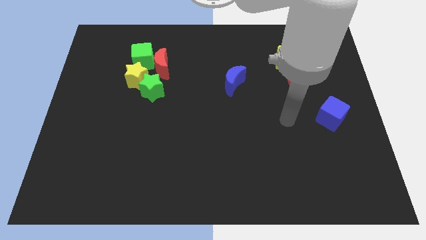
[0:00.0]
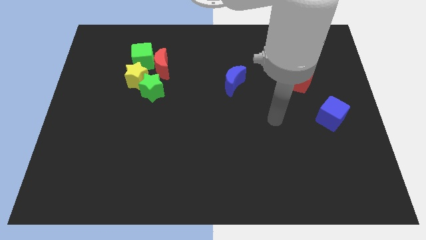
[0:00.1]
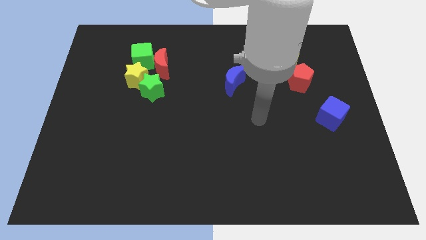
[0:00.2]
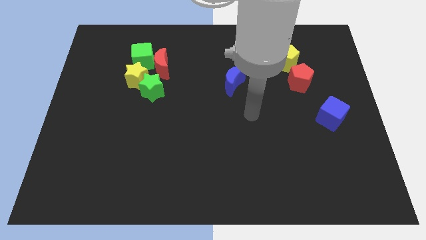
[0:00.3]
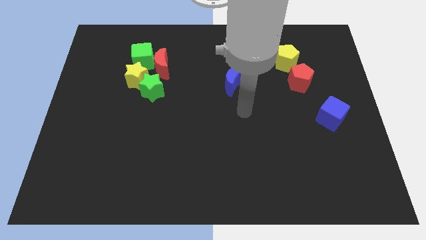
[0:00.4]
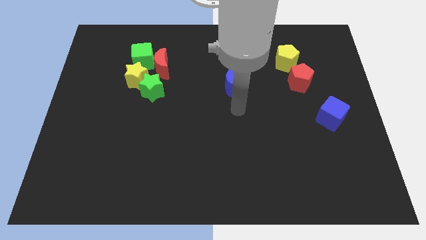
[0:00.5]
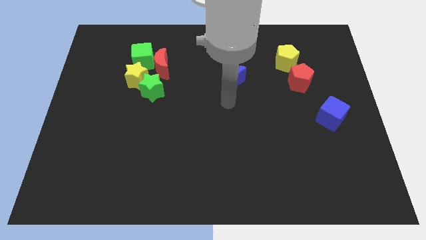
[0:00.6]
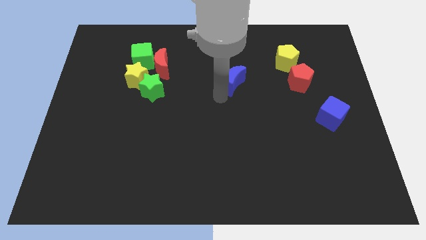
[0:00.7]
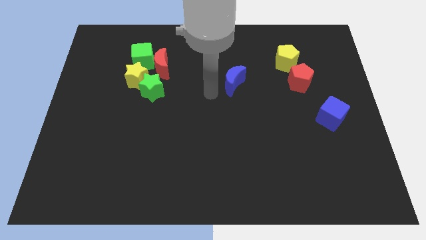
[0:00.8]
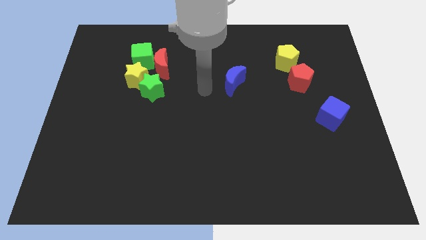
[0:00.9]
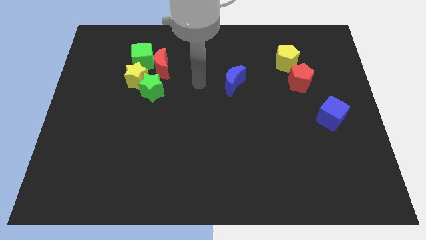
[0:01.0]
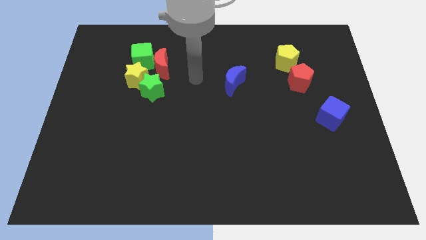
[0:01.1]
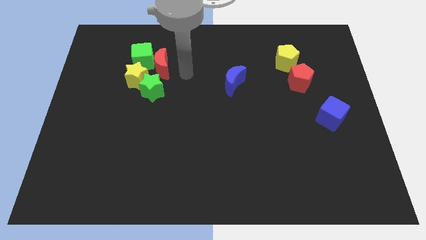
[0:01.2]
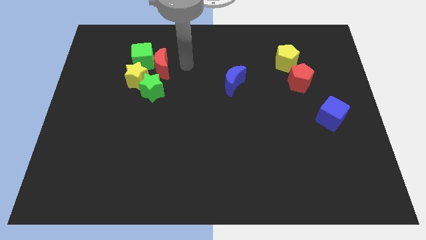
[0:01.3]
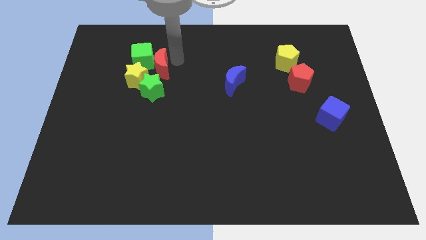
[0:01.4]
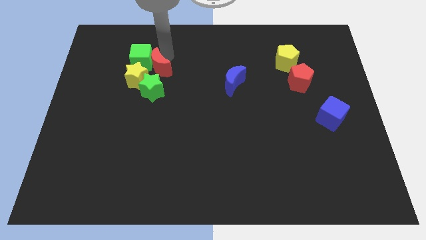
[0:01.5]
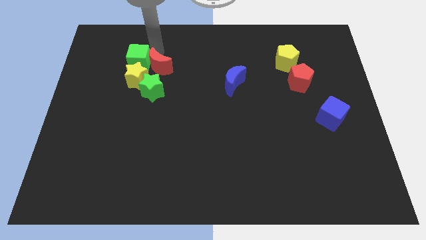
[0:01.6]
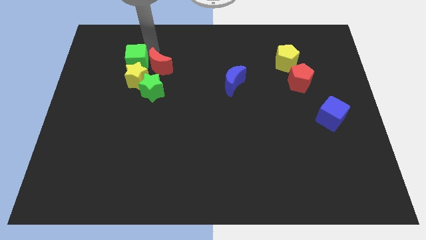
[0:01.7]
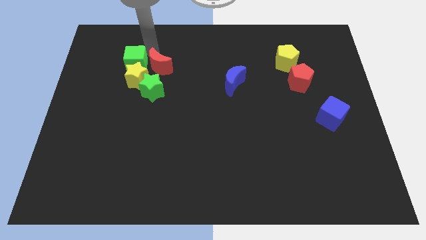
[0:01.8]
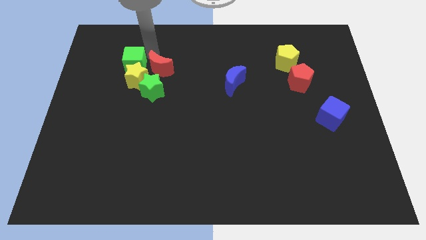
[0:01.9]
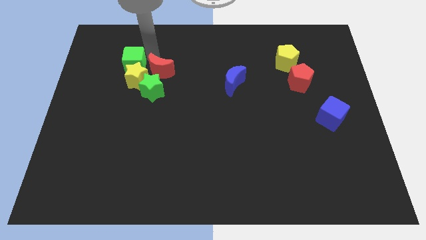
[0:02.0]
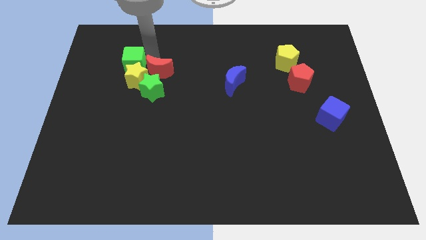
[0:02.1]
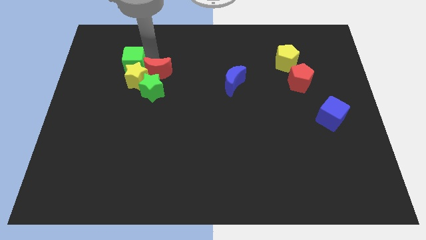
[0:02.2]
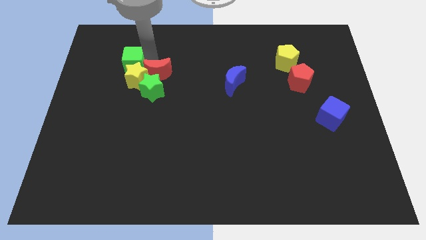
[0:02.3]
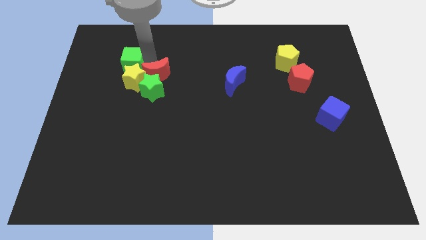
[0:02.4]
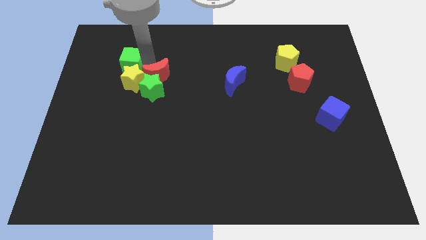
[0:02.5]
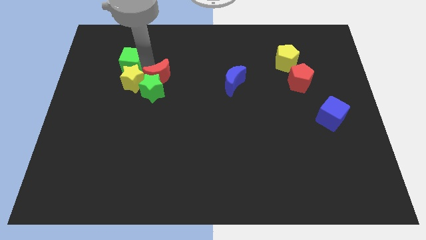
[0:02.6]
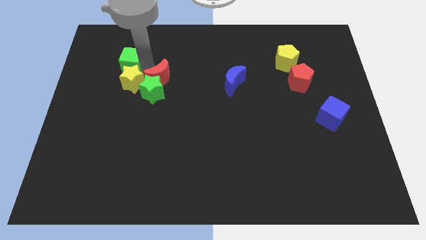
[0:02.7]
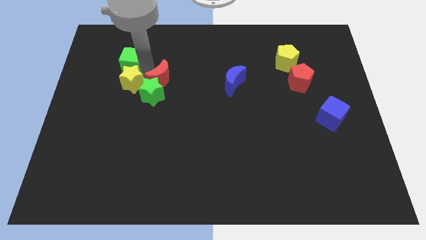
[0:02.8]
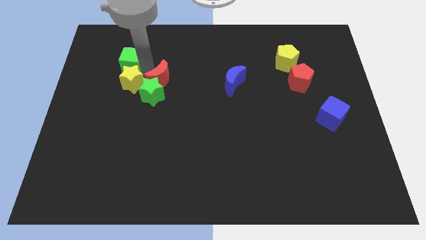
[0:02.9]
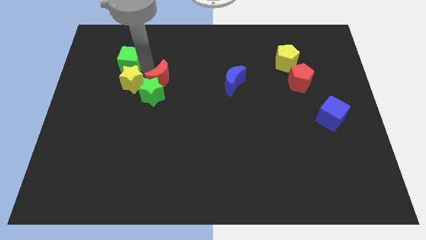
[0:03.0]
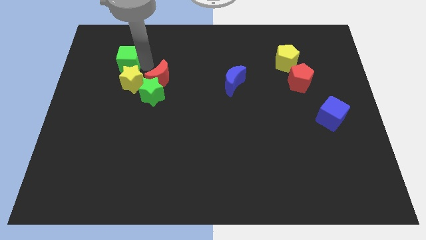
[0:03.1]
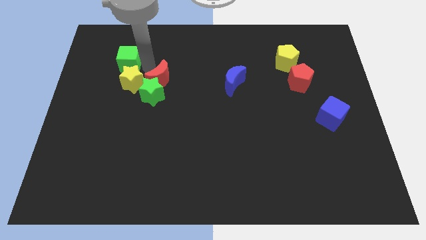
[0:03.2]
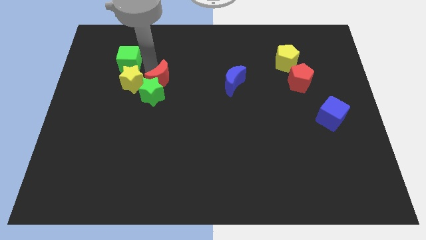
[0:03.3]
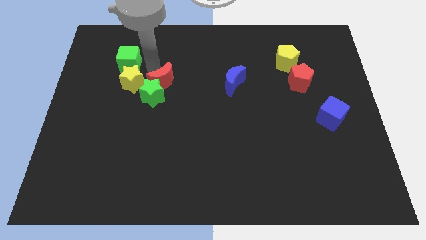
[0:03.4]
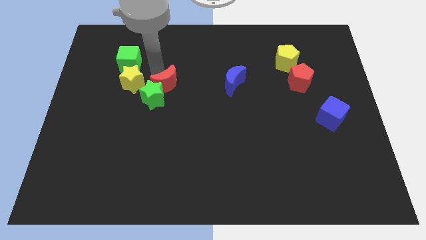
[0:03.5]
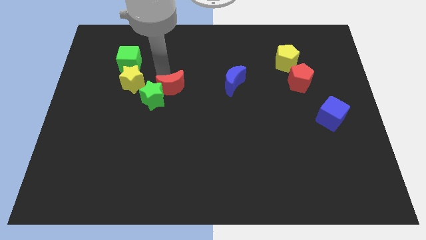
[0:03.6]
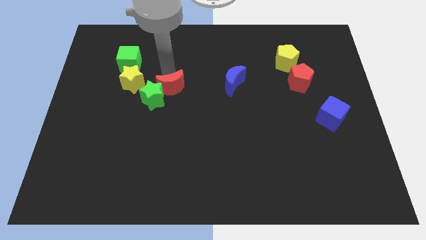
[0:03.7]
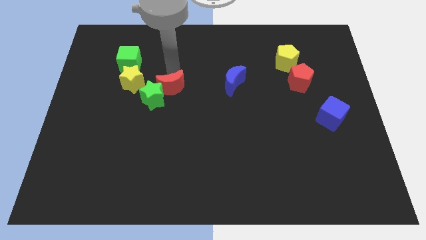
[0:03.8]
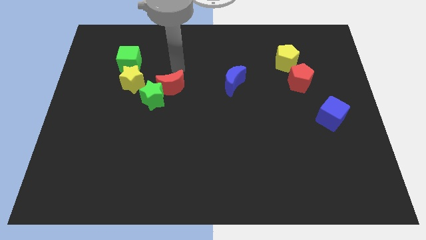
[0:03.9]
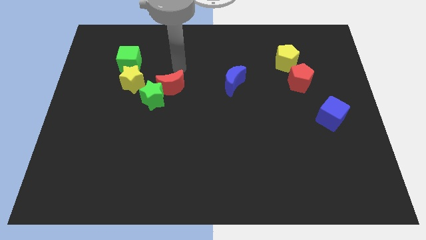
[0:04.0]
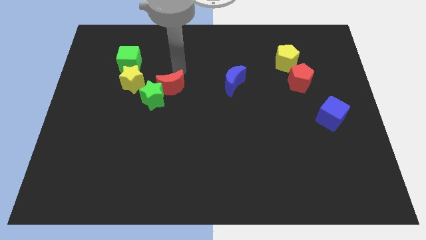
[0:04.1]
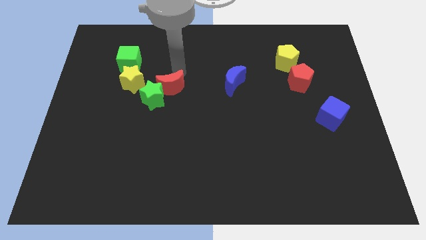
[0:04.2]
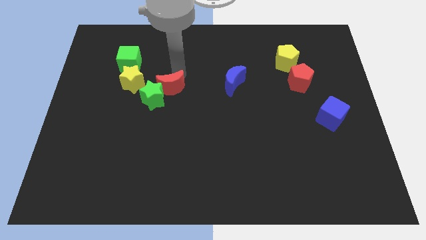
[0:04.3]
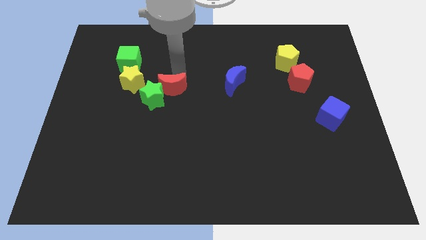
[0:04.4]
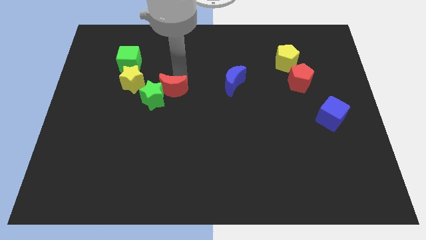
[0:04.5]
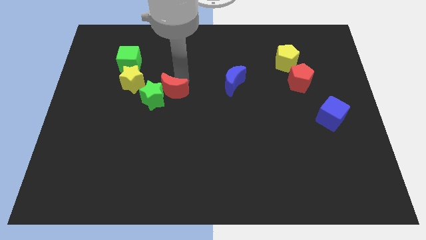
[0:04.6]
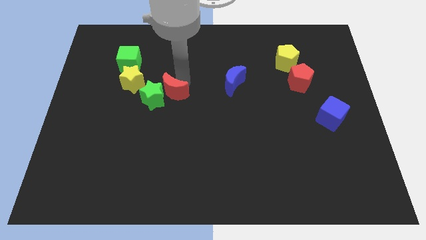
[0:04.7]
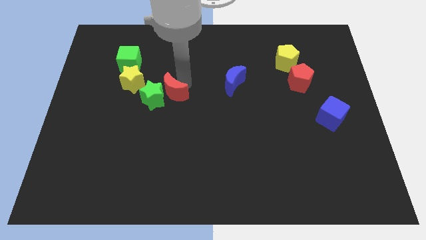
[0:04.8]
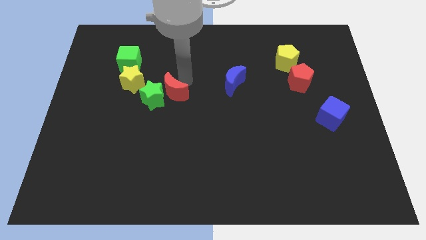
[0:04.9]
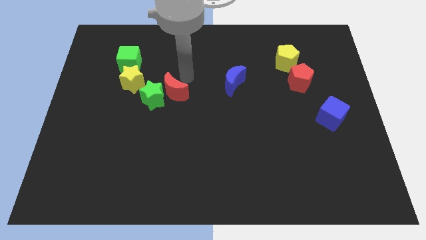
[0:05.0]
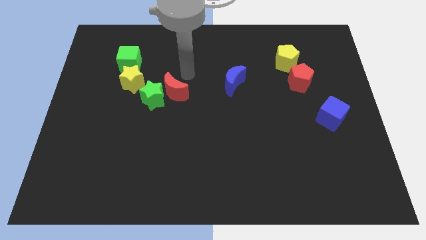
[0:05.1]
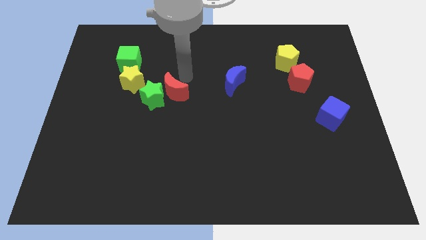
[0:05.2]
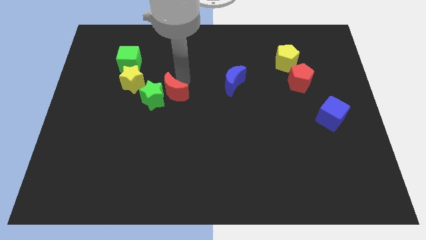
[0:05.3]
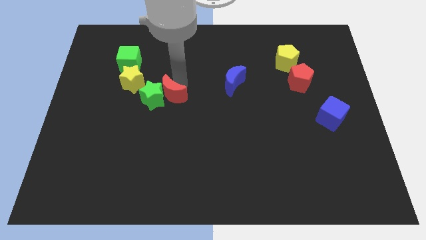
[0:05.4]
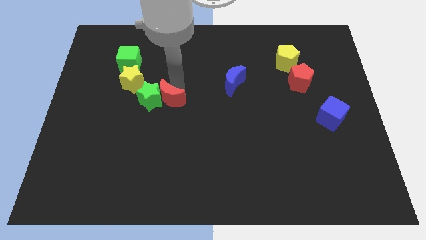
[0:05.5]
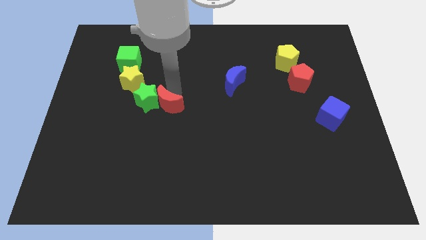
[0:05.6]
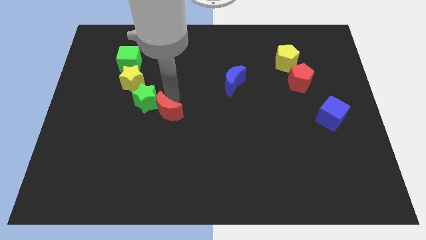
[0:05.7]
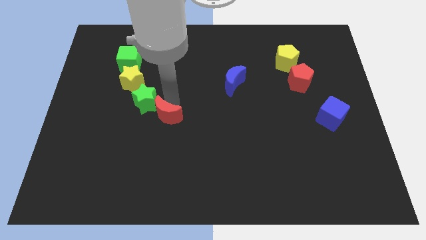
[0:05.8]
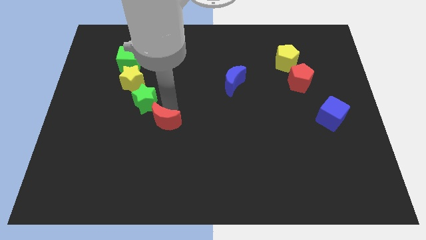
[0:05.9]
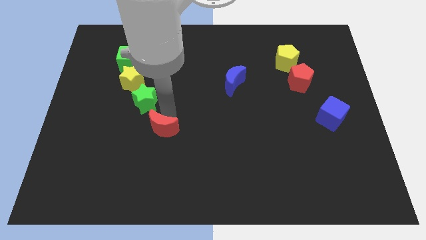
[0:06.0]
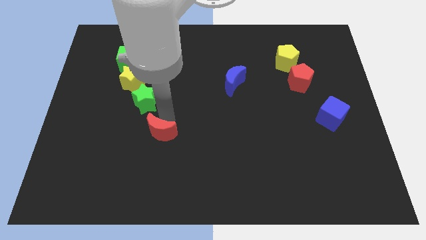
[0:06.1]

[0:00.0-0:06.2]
slide the red moon downwards

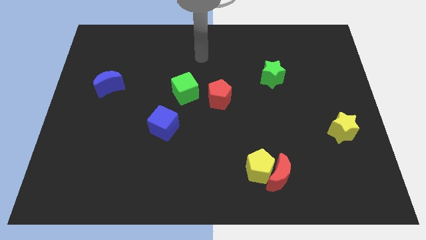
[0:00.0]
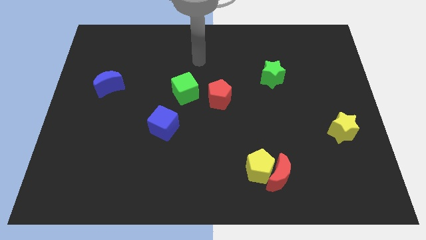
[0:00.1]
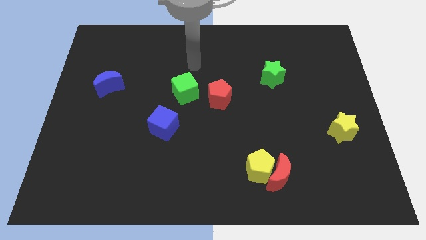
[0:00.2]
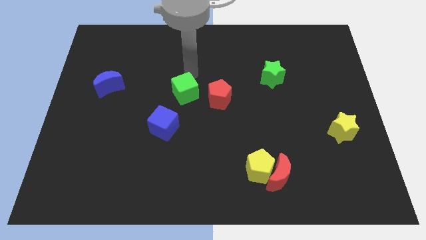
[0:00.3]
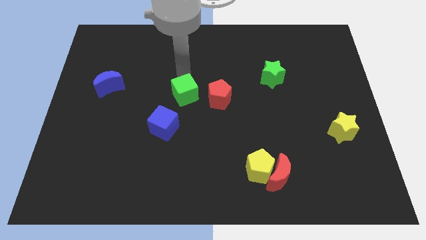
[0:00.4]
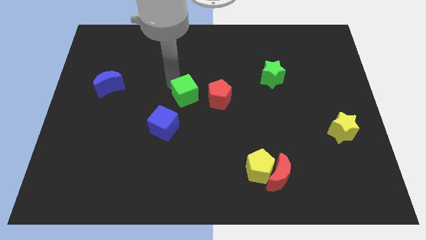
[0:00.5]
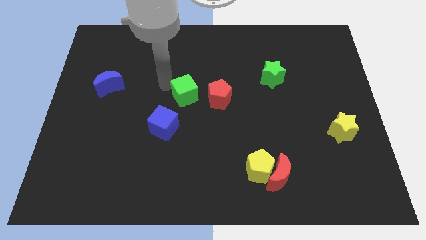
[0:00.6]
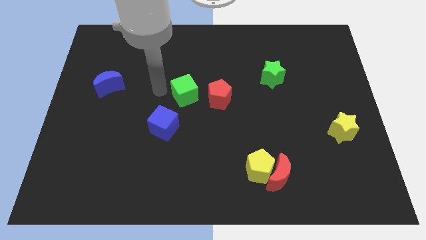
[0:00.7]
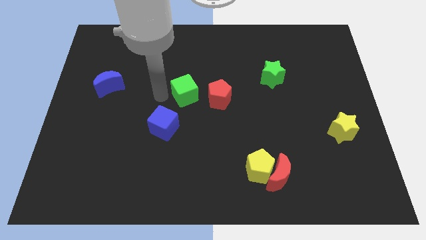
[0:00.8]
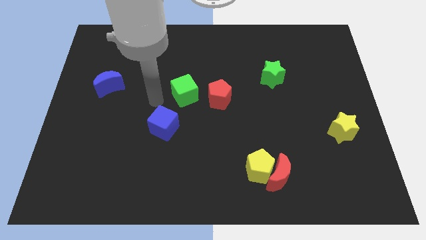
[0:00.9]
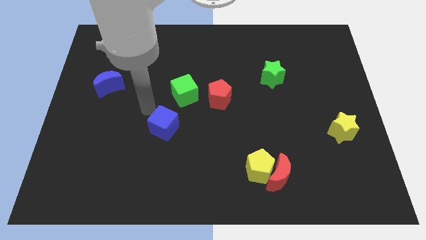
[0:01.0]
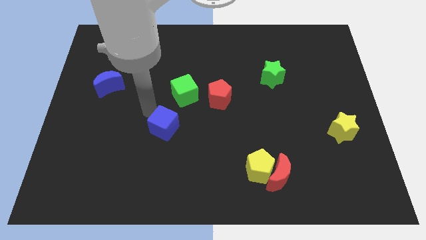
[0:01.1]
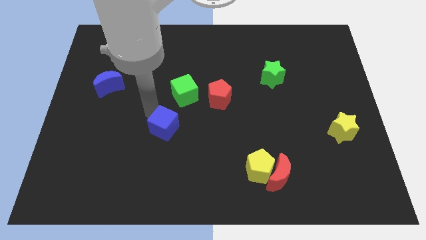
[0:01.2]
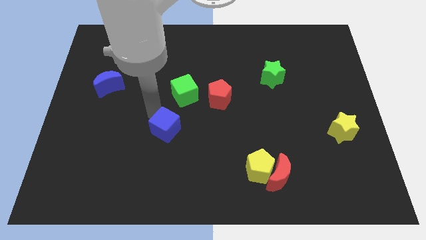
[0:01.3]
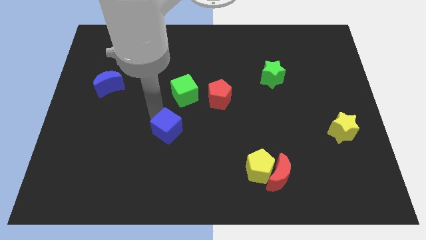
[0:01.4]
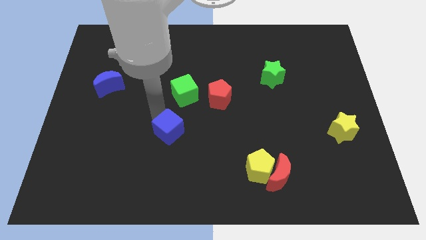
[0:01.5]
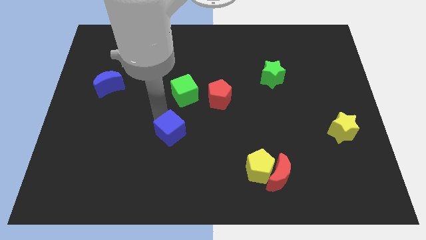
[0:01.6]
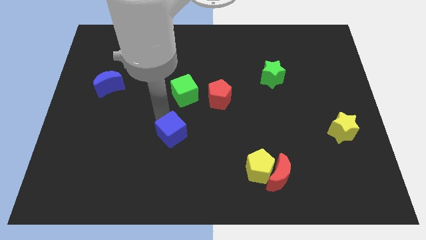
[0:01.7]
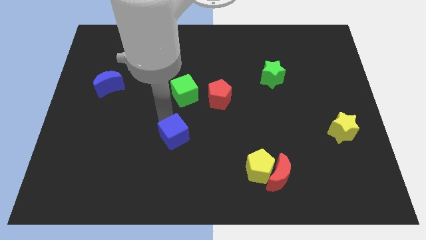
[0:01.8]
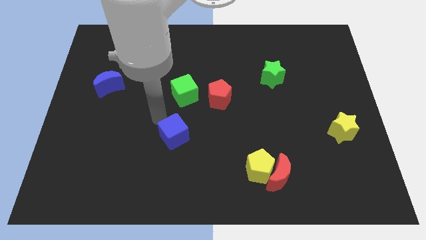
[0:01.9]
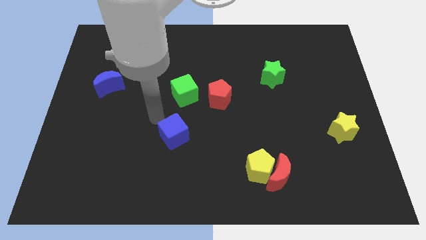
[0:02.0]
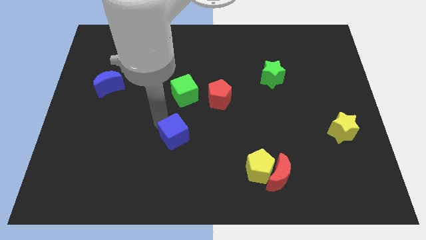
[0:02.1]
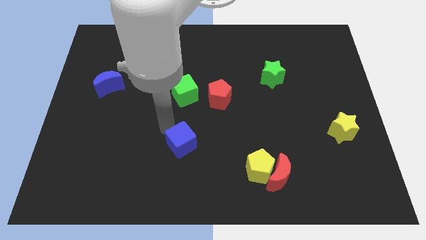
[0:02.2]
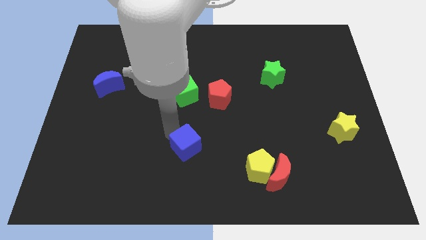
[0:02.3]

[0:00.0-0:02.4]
slightly move the blue cube downwards and right diagonally

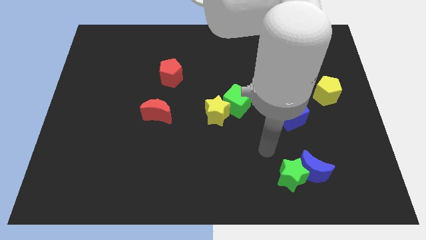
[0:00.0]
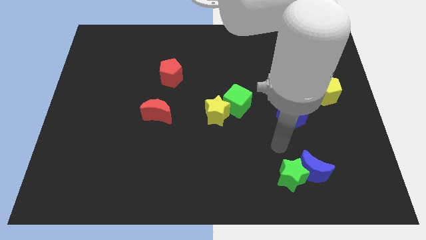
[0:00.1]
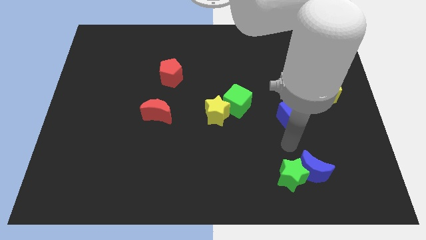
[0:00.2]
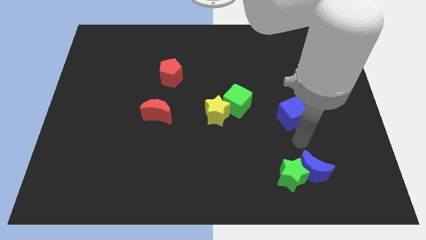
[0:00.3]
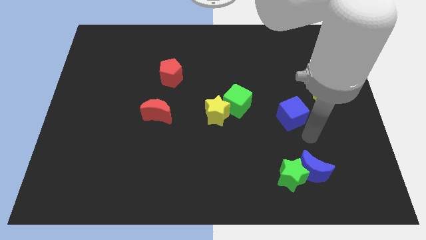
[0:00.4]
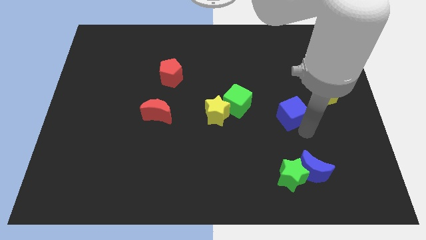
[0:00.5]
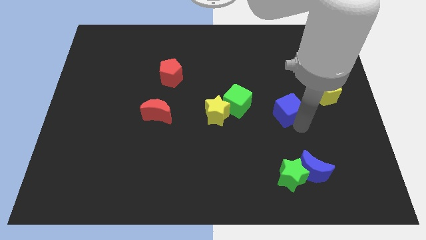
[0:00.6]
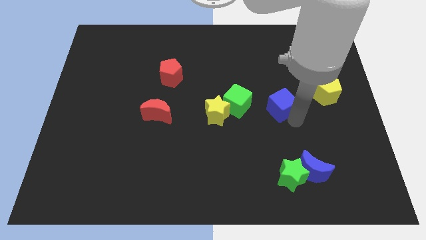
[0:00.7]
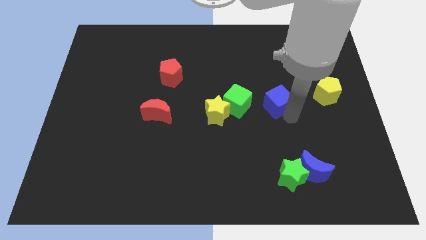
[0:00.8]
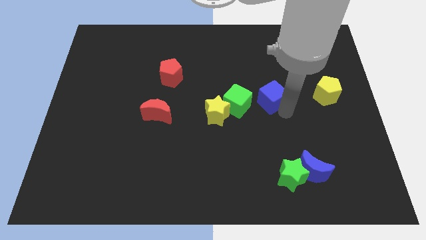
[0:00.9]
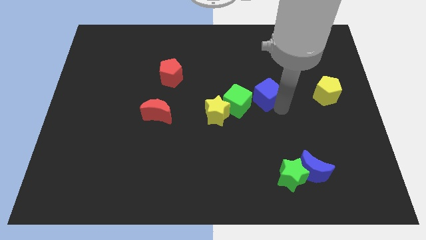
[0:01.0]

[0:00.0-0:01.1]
move the blue cube a bit diagonally up and to the left
